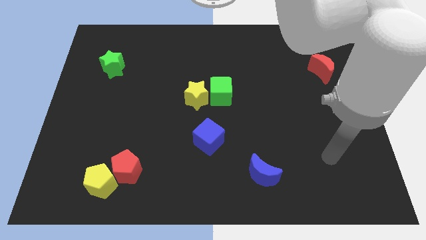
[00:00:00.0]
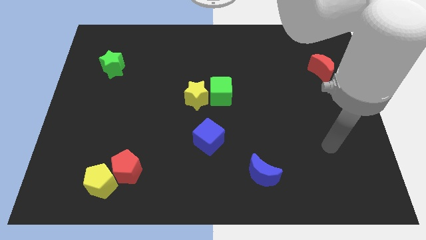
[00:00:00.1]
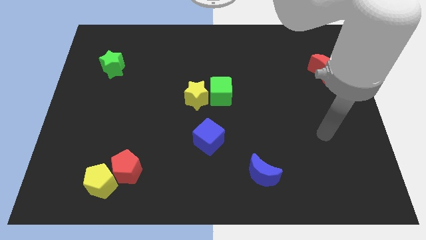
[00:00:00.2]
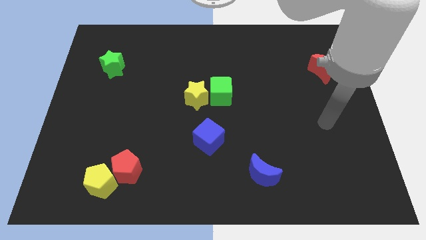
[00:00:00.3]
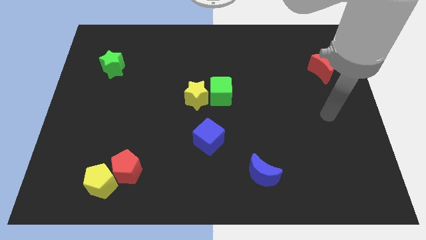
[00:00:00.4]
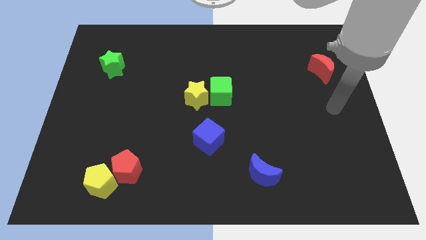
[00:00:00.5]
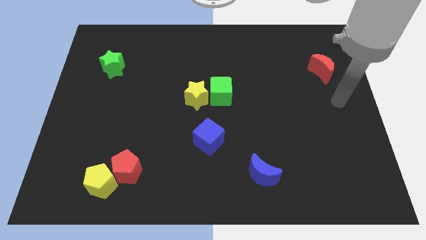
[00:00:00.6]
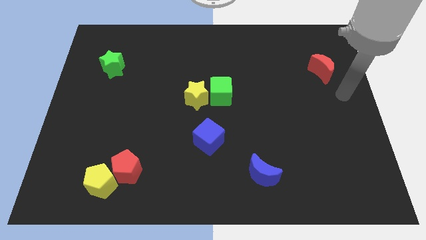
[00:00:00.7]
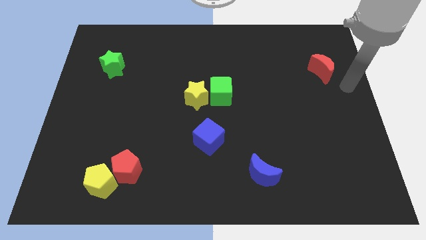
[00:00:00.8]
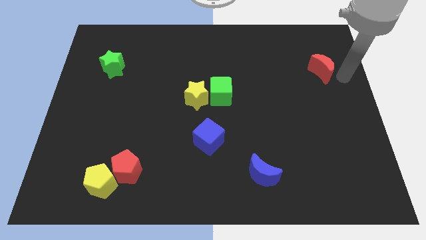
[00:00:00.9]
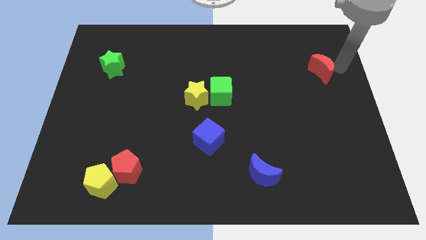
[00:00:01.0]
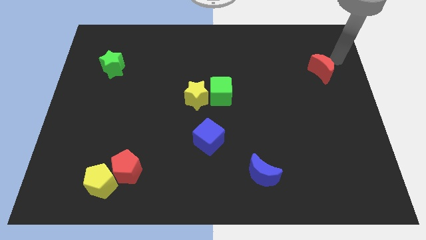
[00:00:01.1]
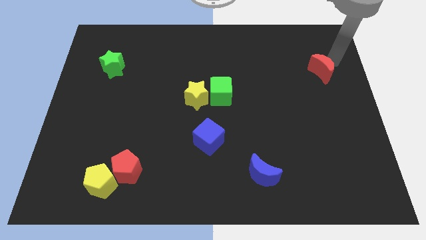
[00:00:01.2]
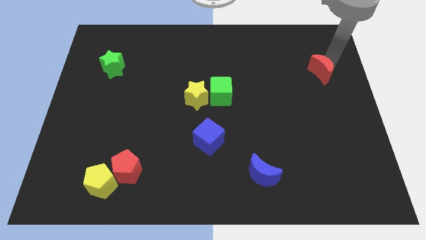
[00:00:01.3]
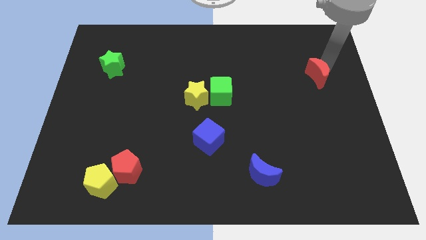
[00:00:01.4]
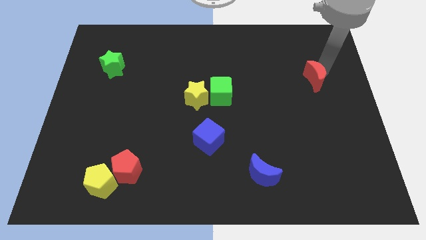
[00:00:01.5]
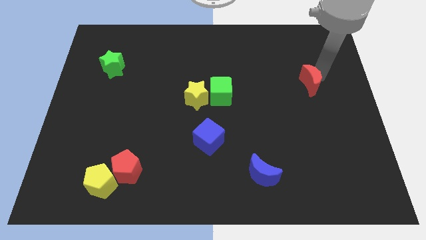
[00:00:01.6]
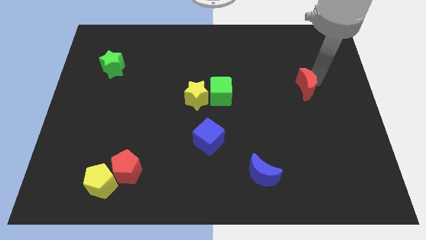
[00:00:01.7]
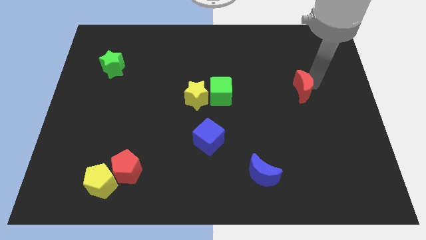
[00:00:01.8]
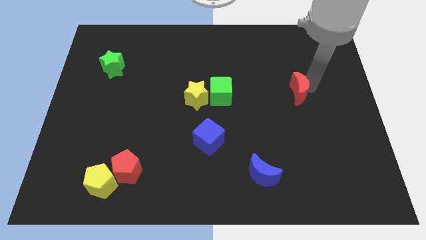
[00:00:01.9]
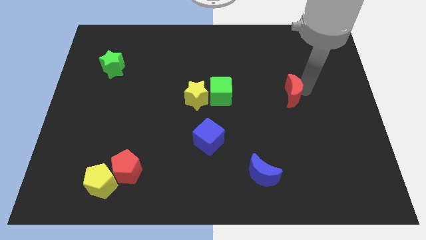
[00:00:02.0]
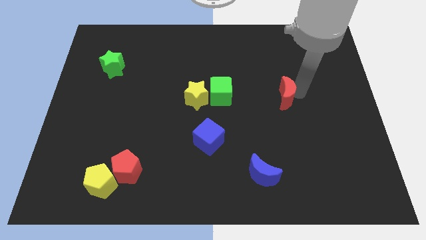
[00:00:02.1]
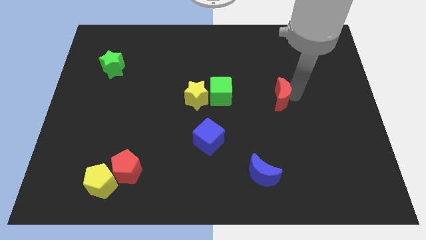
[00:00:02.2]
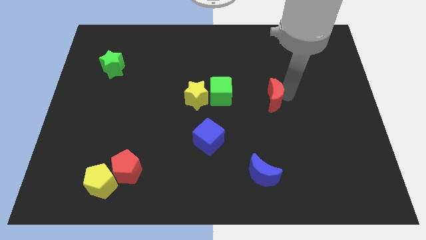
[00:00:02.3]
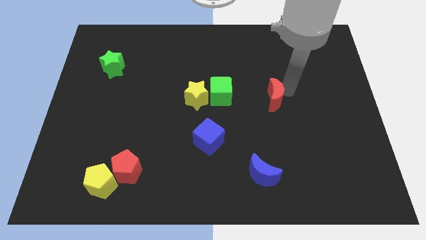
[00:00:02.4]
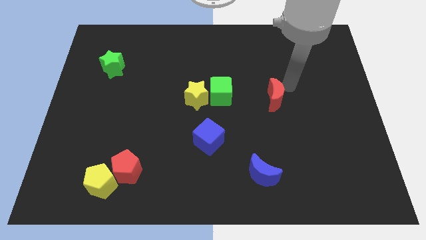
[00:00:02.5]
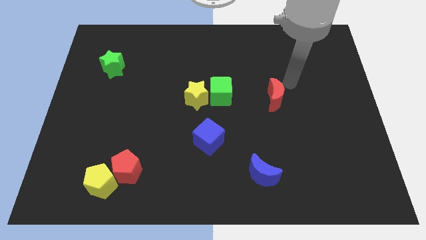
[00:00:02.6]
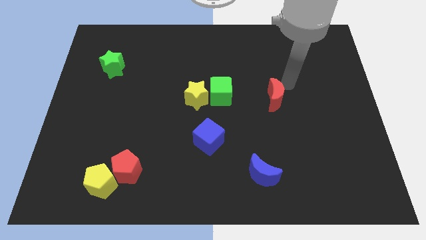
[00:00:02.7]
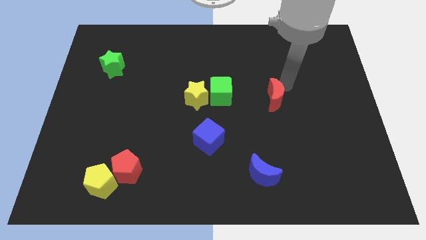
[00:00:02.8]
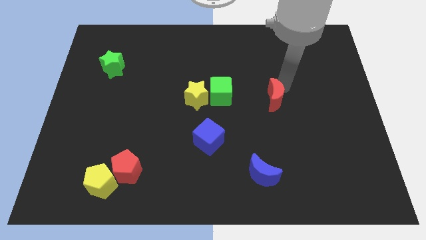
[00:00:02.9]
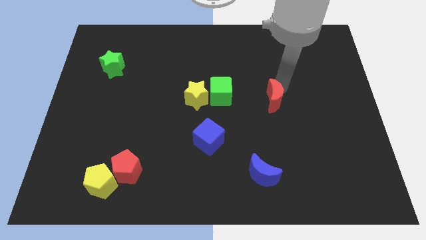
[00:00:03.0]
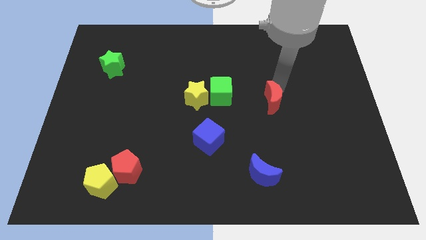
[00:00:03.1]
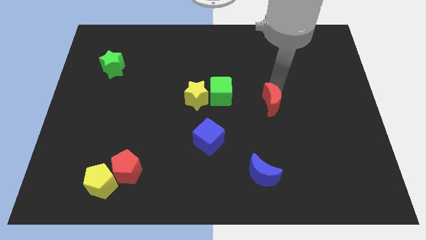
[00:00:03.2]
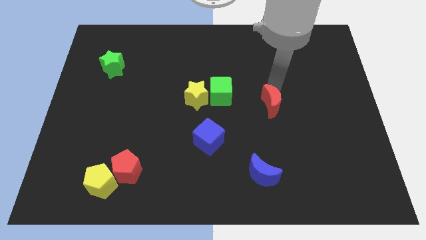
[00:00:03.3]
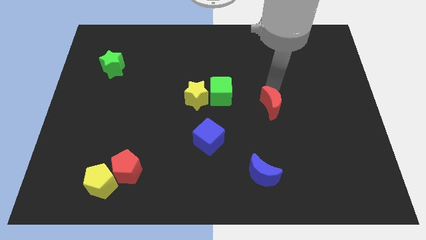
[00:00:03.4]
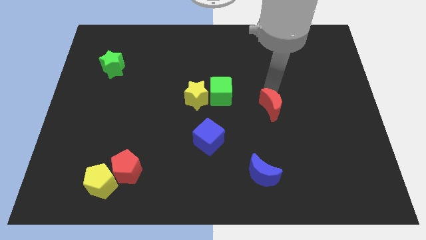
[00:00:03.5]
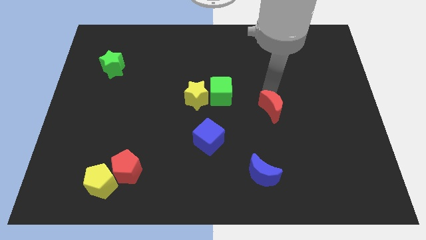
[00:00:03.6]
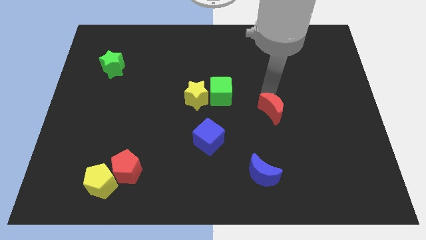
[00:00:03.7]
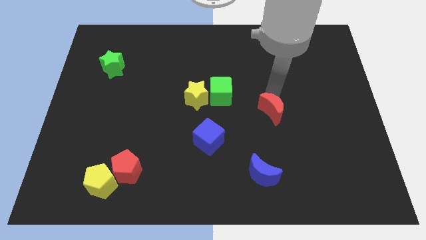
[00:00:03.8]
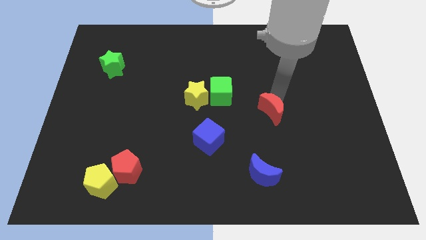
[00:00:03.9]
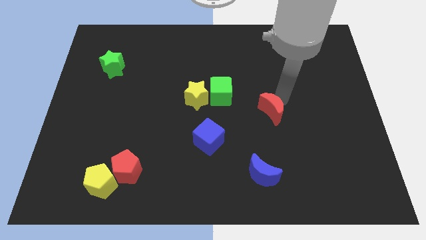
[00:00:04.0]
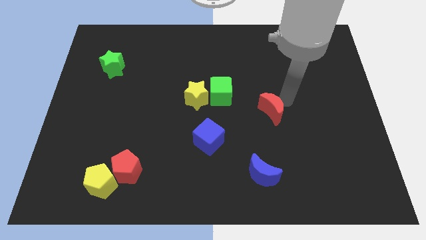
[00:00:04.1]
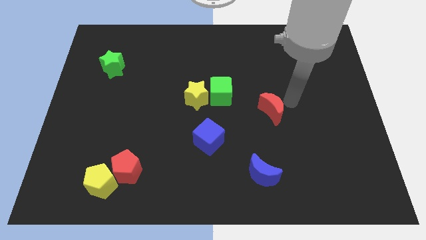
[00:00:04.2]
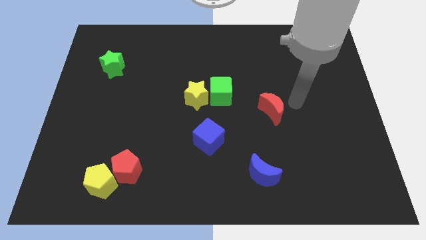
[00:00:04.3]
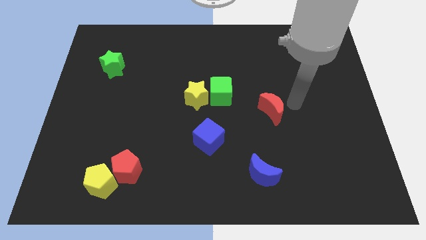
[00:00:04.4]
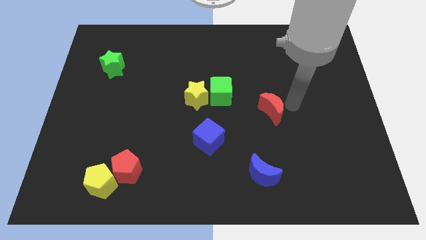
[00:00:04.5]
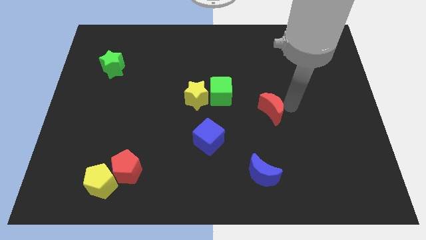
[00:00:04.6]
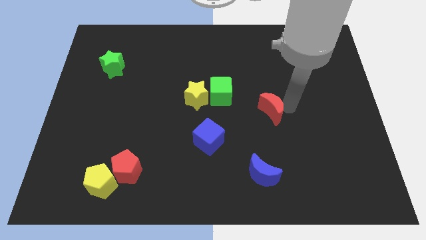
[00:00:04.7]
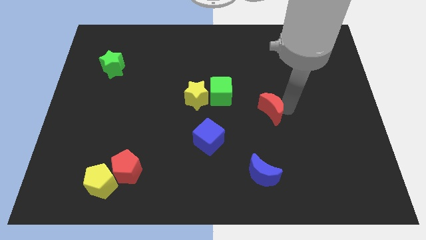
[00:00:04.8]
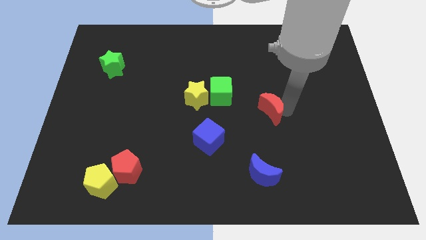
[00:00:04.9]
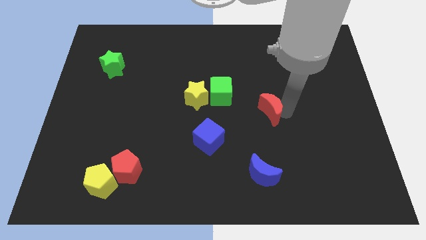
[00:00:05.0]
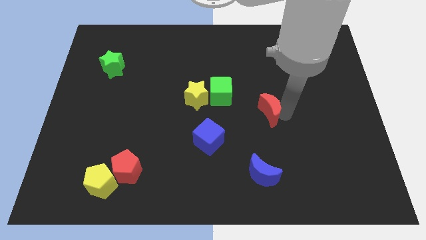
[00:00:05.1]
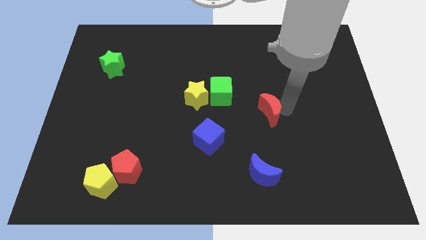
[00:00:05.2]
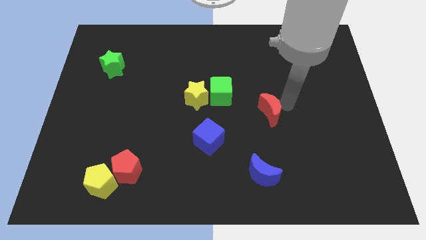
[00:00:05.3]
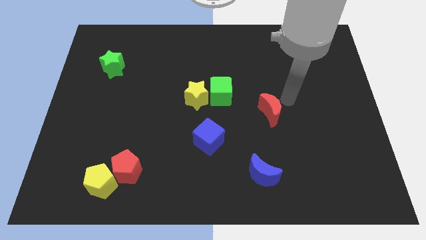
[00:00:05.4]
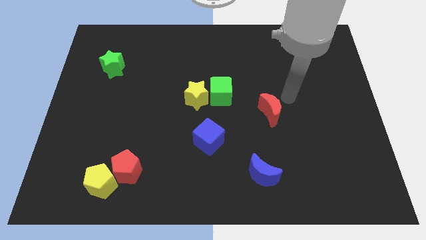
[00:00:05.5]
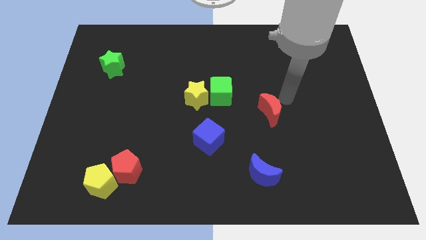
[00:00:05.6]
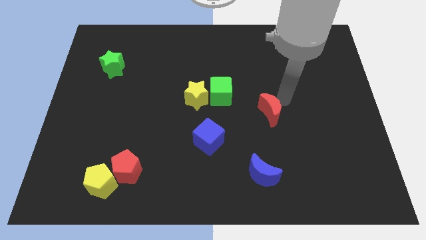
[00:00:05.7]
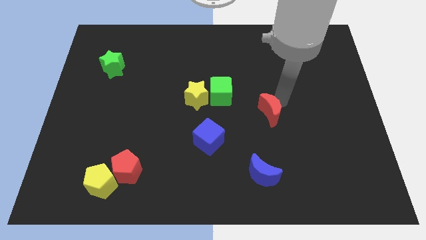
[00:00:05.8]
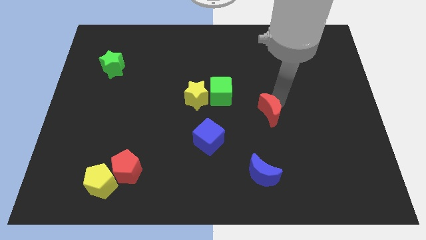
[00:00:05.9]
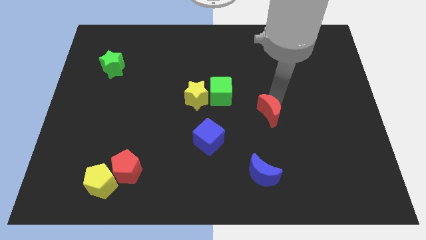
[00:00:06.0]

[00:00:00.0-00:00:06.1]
slide the red moon diagonally downwards and to the left

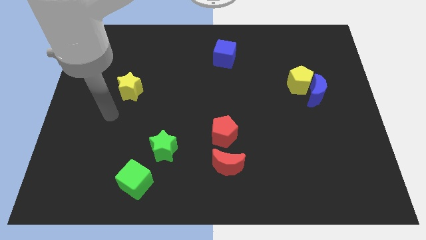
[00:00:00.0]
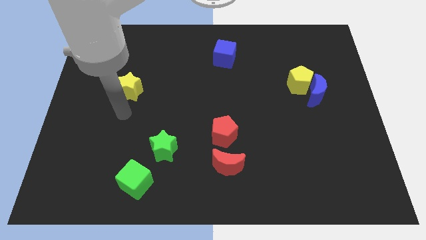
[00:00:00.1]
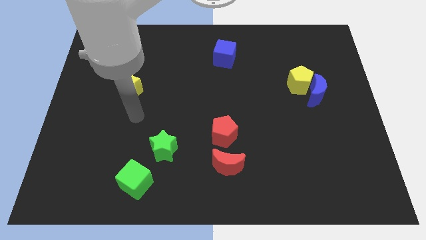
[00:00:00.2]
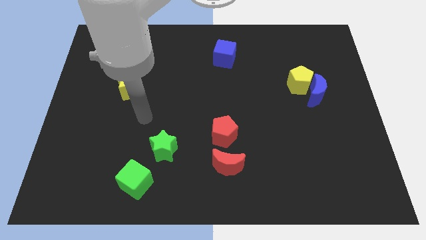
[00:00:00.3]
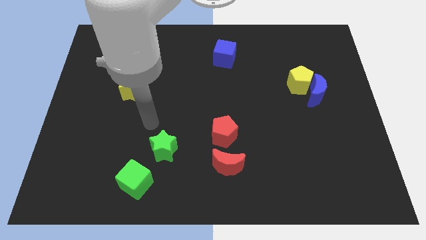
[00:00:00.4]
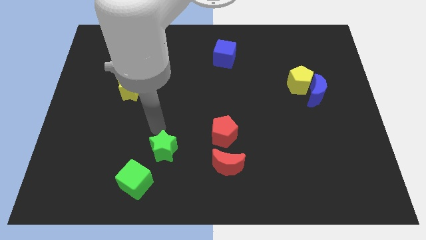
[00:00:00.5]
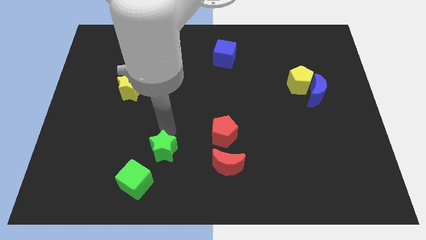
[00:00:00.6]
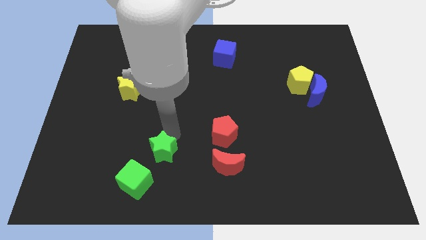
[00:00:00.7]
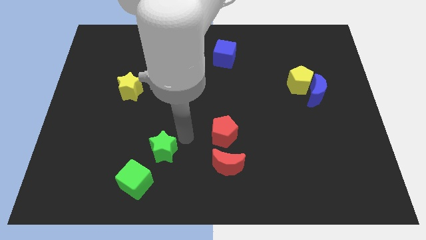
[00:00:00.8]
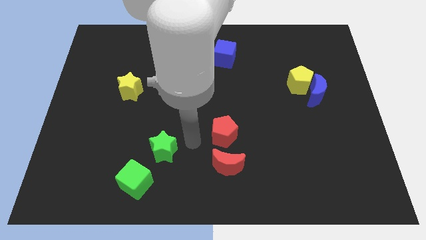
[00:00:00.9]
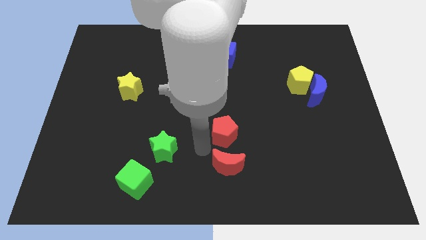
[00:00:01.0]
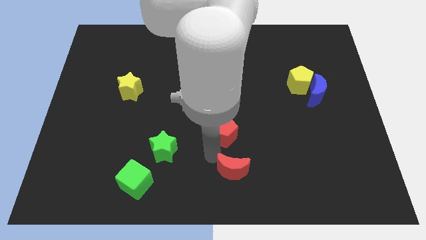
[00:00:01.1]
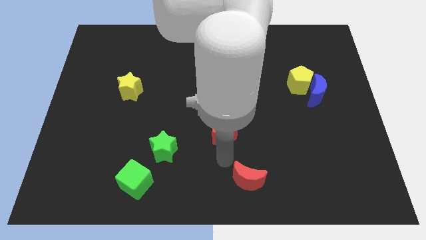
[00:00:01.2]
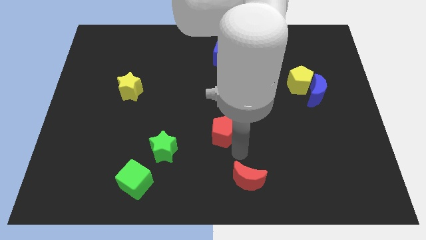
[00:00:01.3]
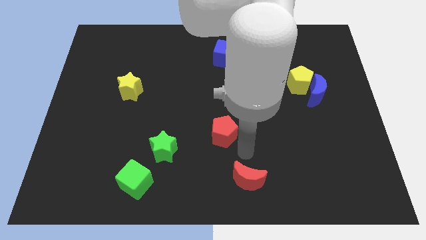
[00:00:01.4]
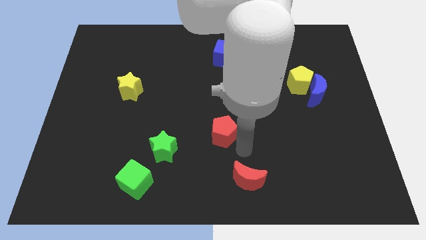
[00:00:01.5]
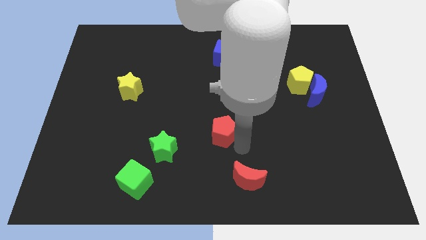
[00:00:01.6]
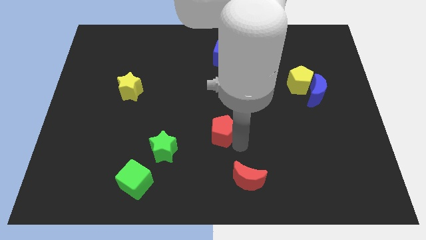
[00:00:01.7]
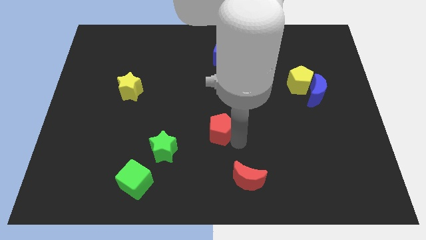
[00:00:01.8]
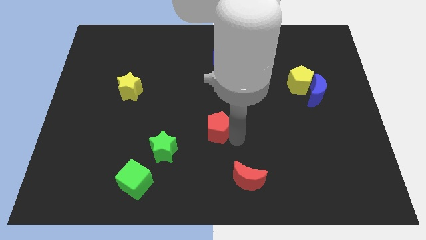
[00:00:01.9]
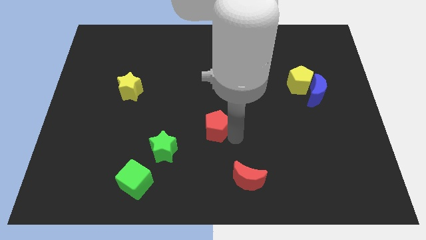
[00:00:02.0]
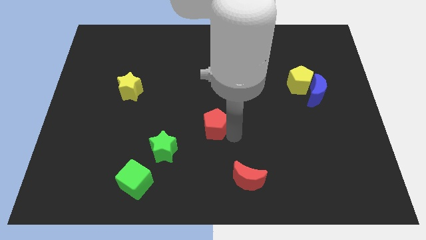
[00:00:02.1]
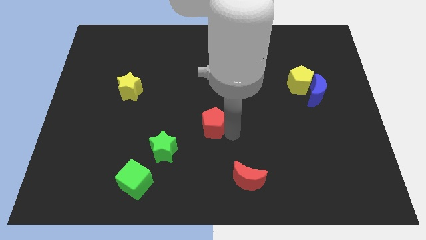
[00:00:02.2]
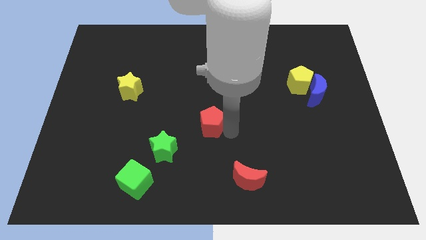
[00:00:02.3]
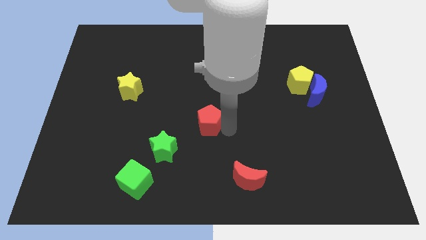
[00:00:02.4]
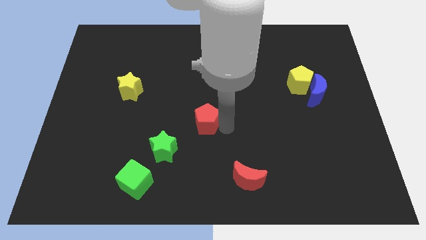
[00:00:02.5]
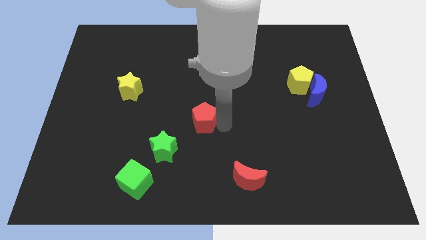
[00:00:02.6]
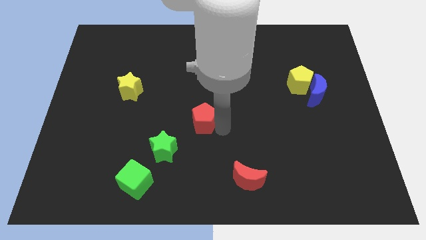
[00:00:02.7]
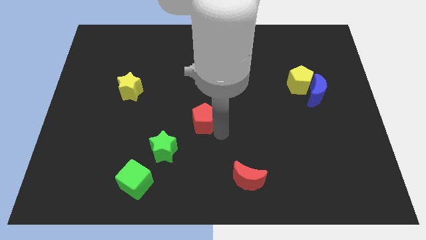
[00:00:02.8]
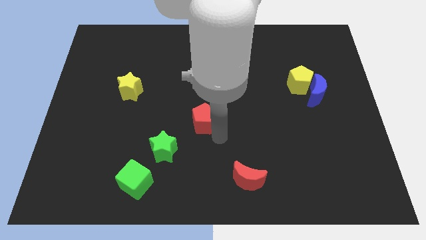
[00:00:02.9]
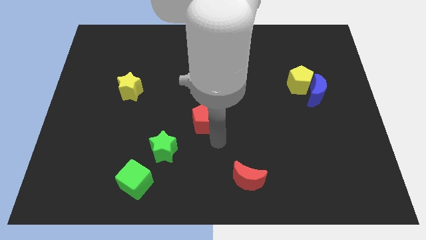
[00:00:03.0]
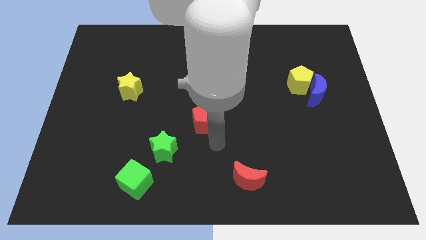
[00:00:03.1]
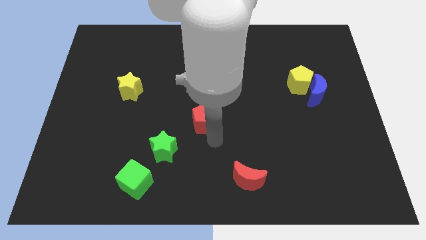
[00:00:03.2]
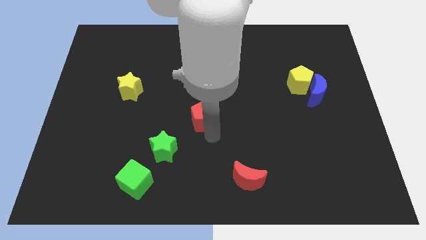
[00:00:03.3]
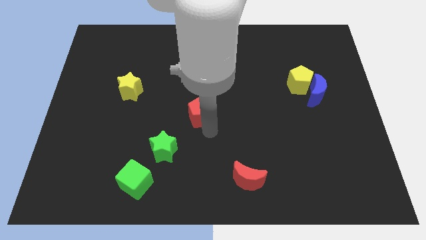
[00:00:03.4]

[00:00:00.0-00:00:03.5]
slightly push the red pentagon upwards and then to the left
